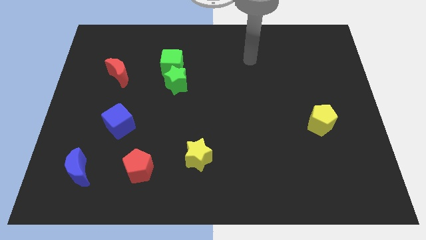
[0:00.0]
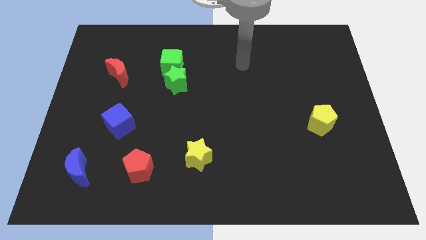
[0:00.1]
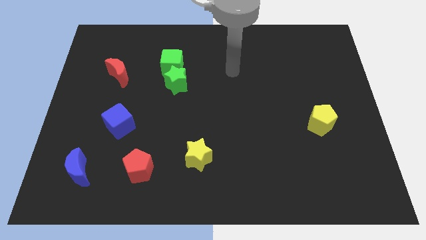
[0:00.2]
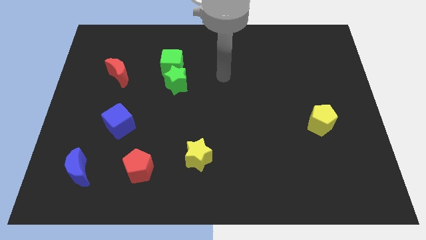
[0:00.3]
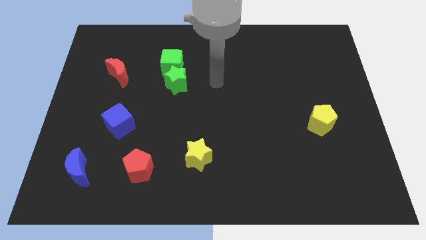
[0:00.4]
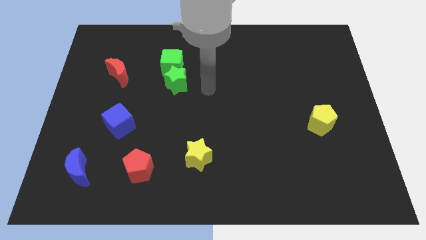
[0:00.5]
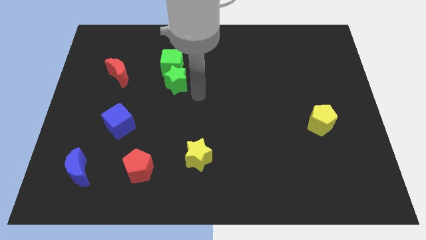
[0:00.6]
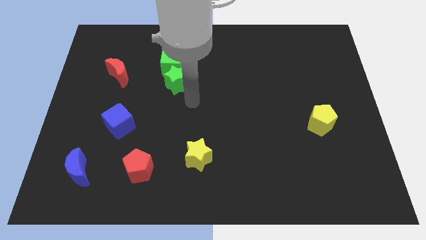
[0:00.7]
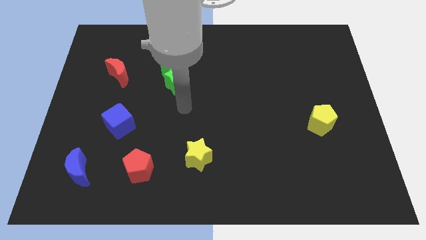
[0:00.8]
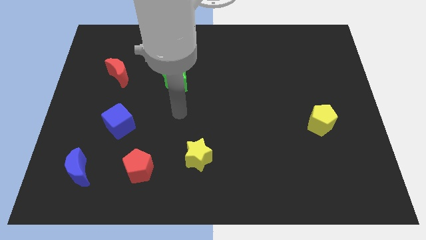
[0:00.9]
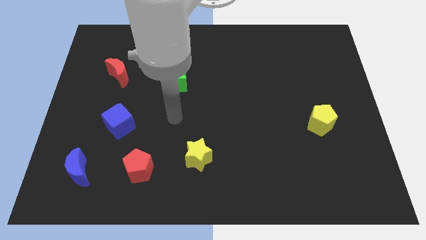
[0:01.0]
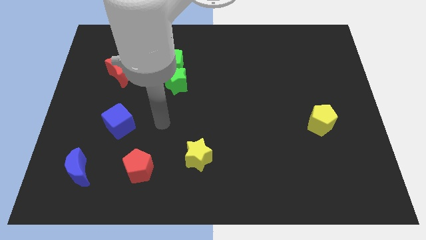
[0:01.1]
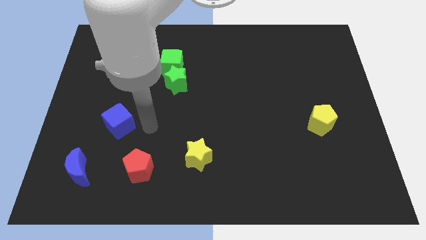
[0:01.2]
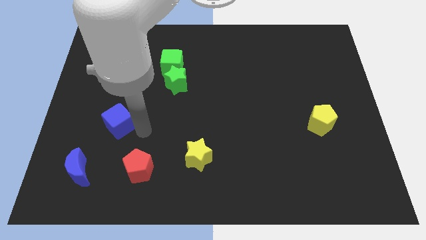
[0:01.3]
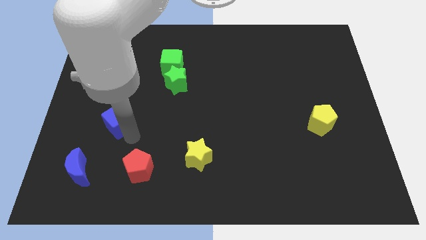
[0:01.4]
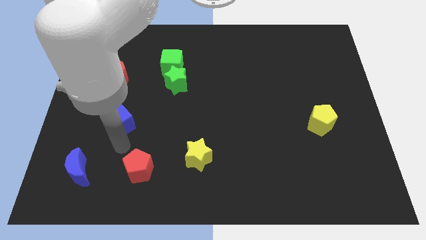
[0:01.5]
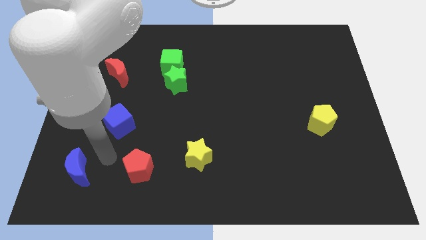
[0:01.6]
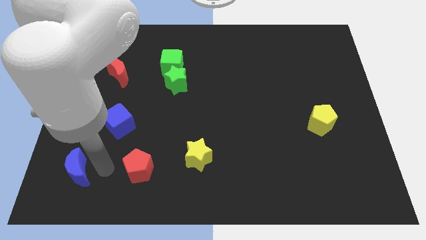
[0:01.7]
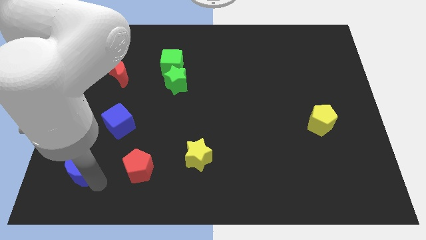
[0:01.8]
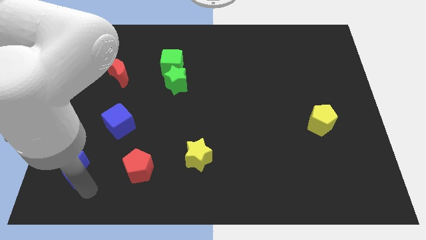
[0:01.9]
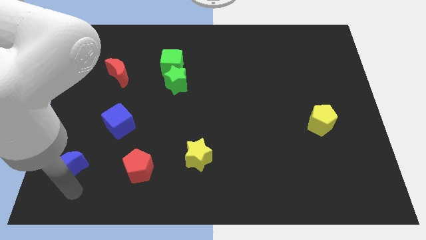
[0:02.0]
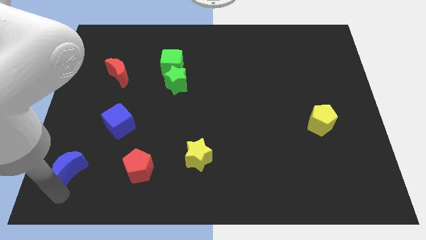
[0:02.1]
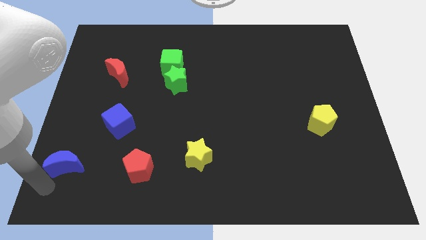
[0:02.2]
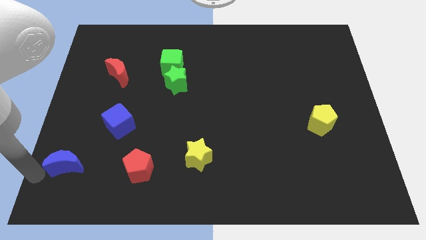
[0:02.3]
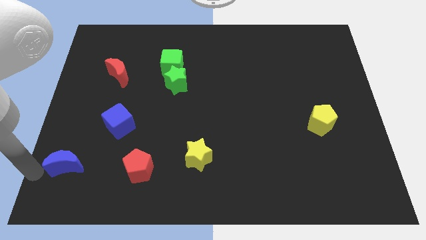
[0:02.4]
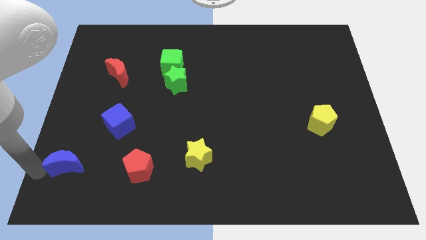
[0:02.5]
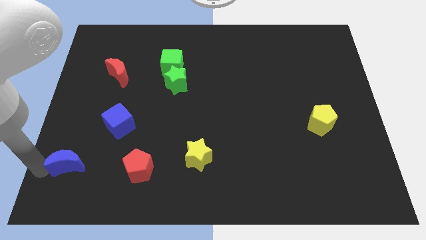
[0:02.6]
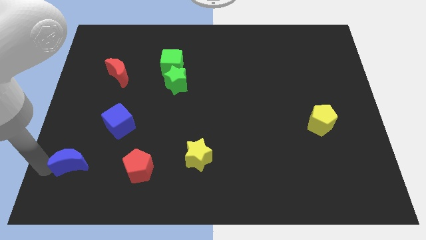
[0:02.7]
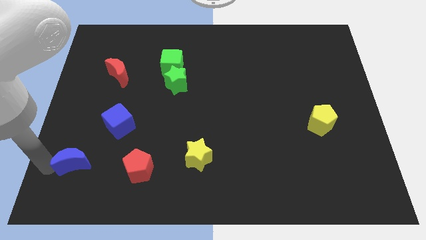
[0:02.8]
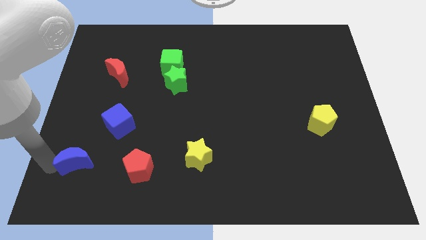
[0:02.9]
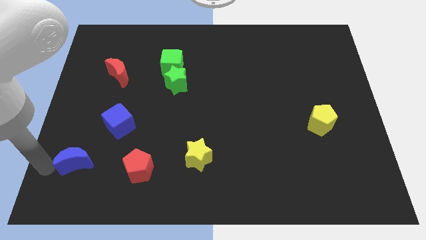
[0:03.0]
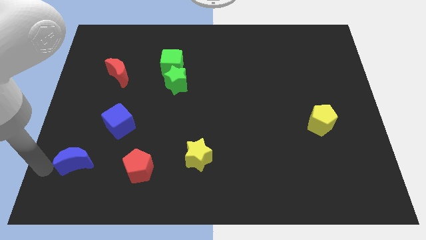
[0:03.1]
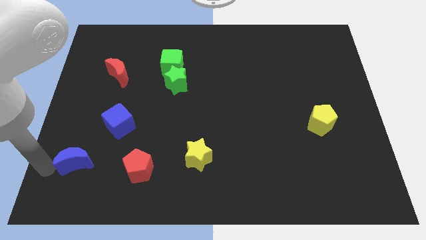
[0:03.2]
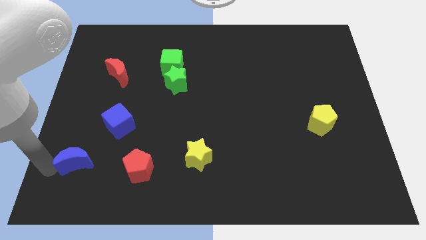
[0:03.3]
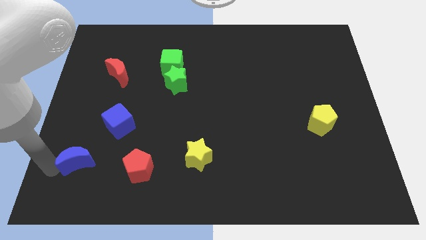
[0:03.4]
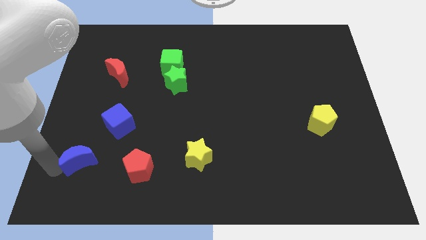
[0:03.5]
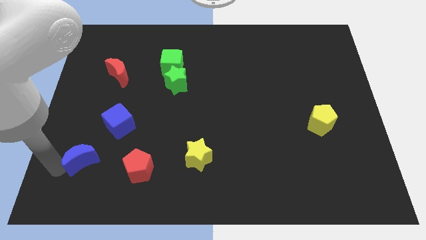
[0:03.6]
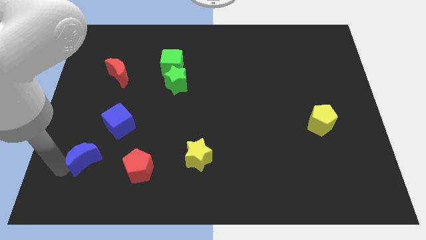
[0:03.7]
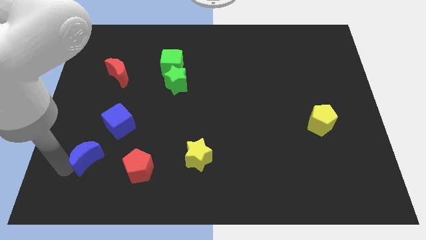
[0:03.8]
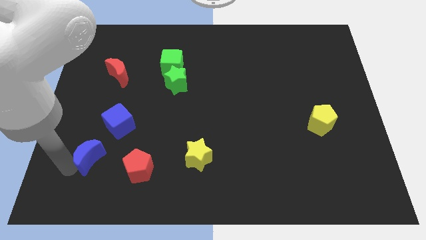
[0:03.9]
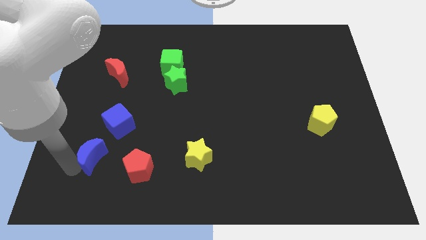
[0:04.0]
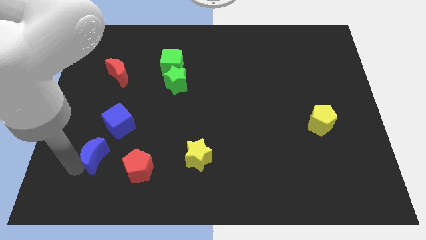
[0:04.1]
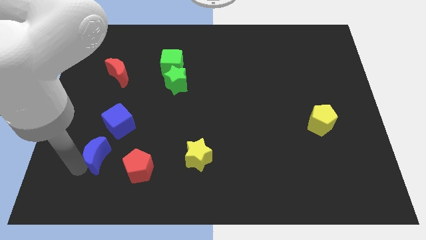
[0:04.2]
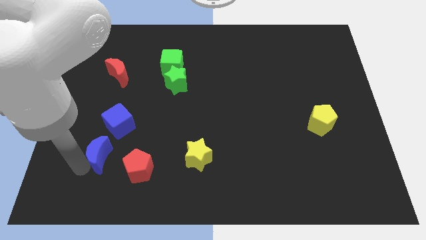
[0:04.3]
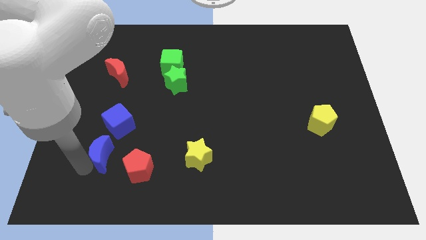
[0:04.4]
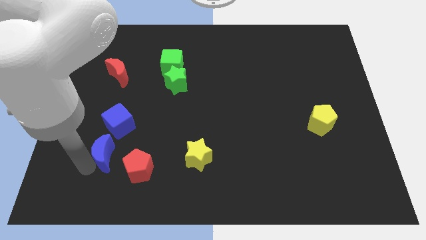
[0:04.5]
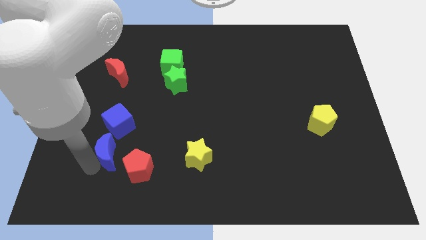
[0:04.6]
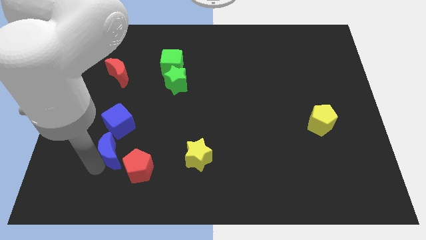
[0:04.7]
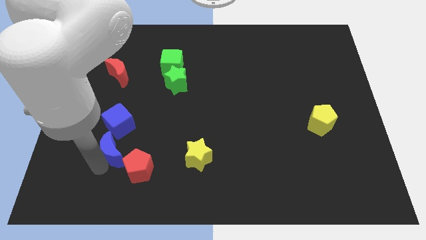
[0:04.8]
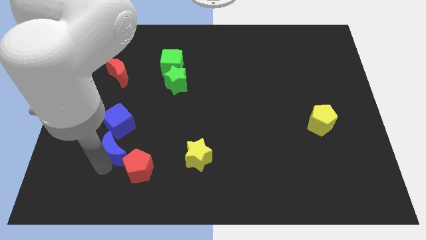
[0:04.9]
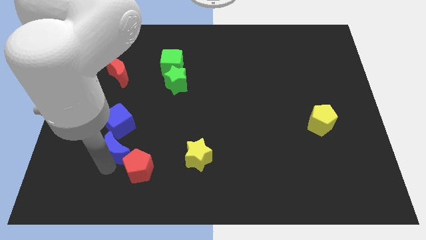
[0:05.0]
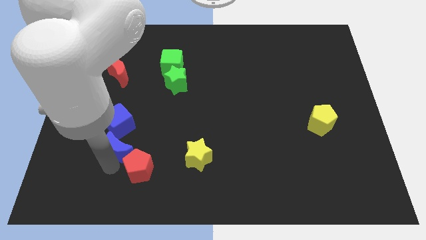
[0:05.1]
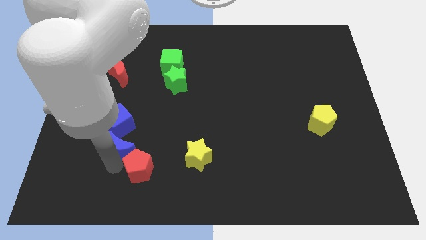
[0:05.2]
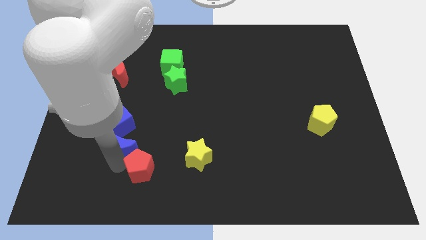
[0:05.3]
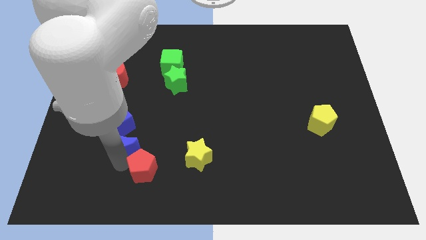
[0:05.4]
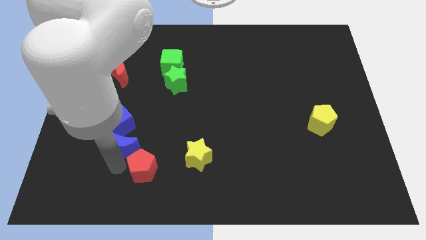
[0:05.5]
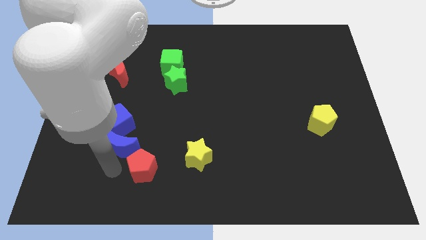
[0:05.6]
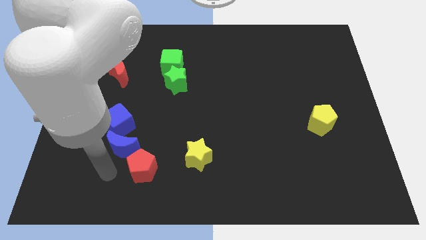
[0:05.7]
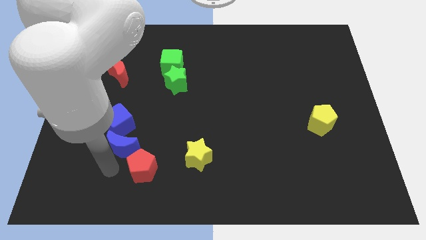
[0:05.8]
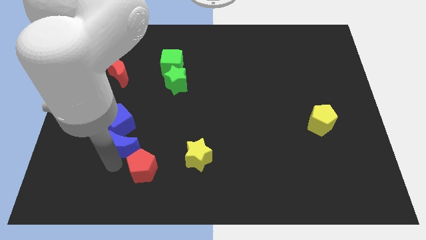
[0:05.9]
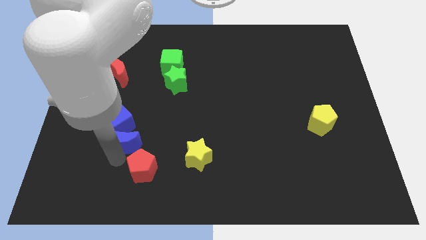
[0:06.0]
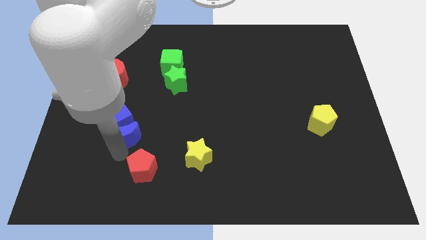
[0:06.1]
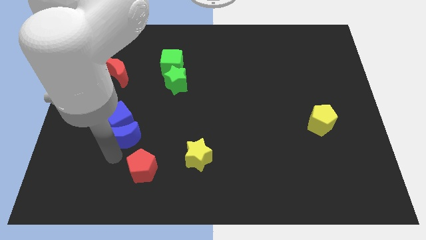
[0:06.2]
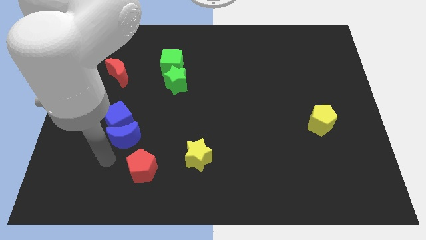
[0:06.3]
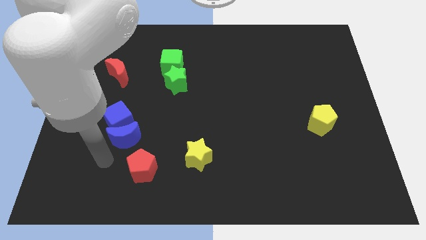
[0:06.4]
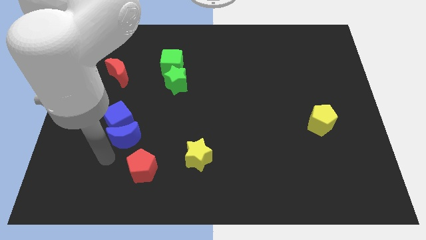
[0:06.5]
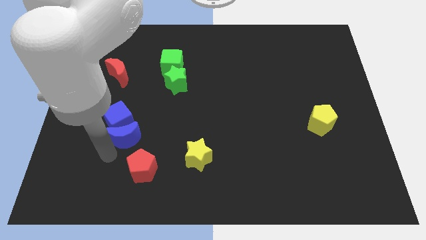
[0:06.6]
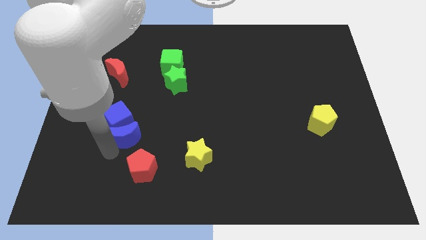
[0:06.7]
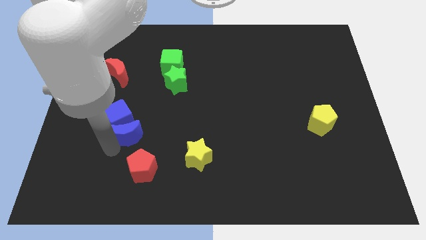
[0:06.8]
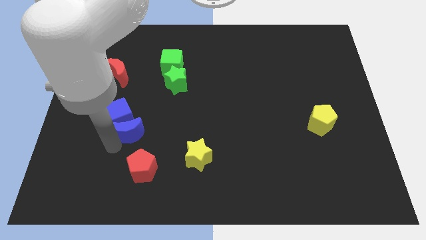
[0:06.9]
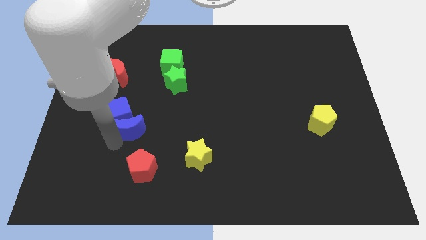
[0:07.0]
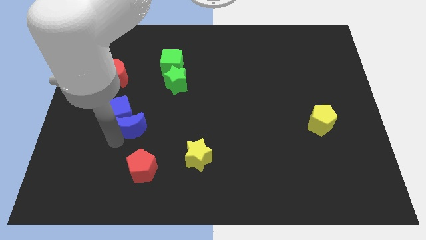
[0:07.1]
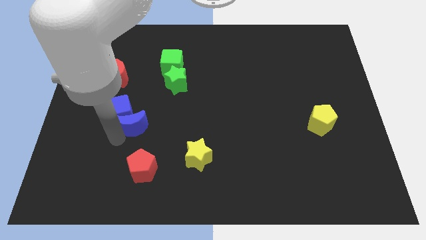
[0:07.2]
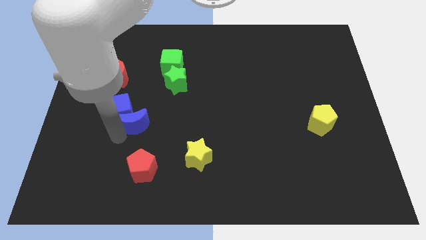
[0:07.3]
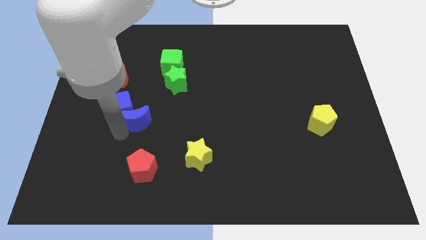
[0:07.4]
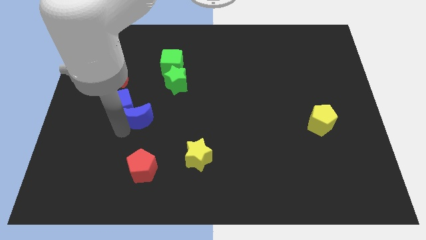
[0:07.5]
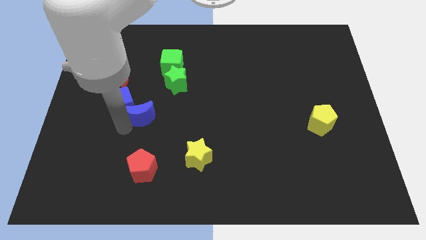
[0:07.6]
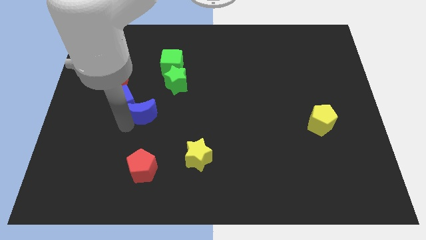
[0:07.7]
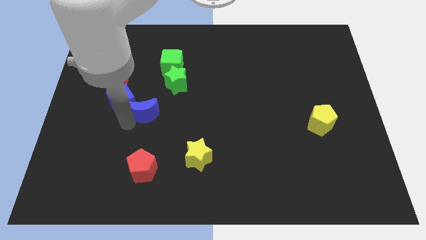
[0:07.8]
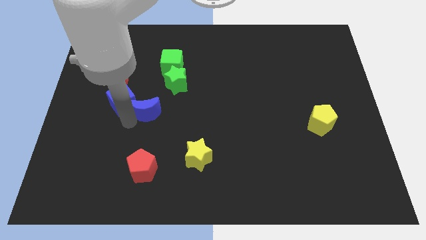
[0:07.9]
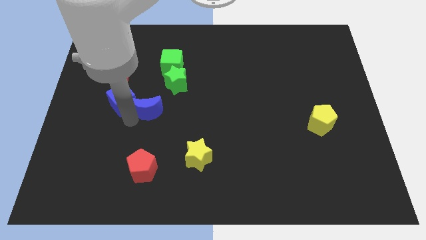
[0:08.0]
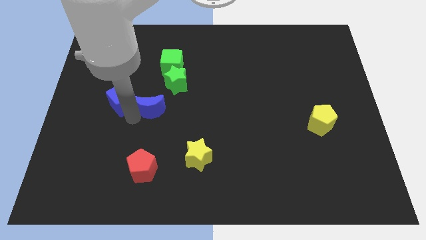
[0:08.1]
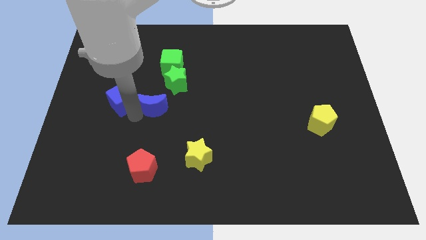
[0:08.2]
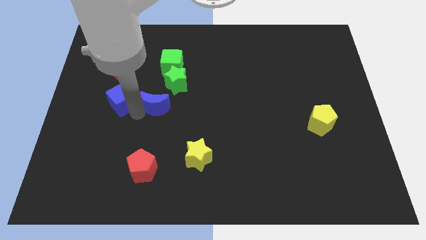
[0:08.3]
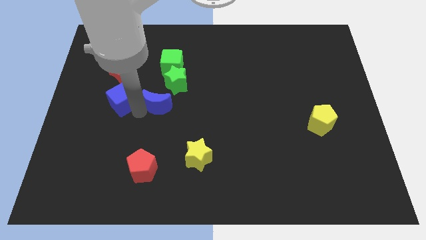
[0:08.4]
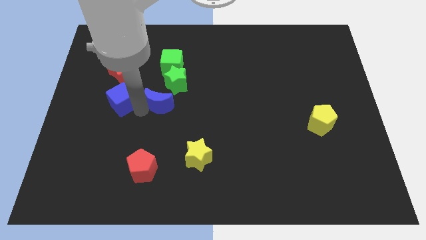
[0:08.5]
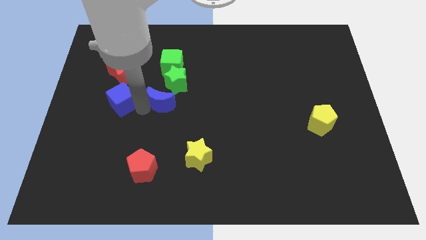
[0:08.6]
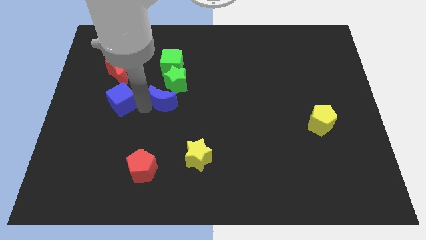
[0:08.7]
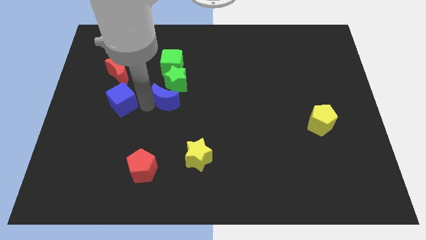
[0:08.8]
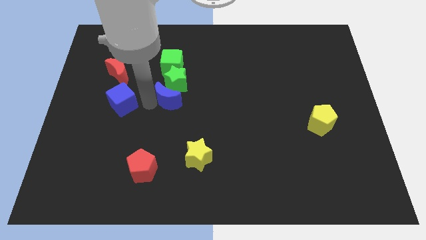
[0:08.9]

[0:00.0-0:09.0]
slide the blue moon to the green star
